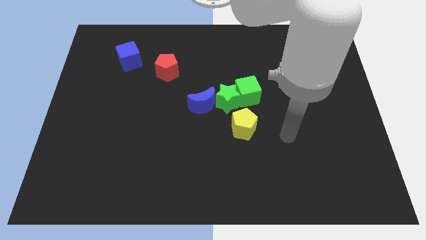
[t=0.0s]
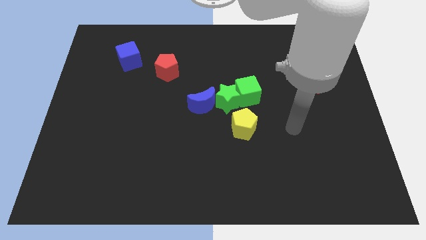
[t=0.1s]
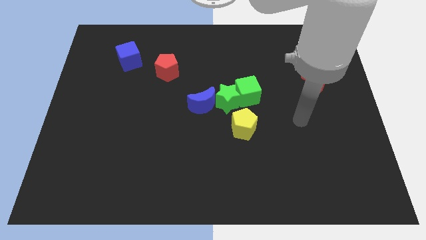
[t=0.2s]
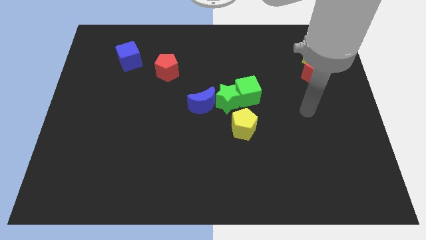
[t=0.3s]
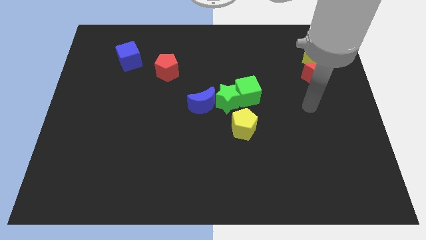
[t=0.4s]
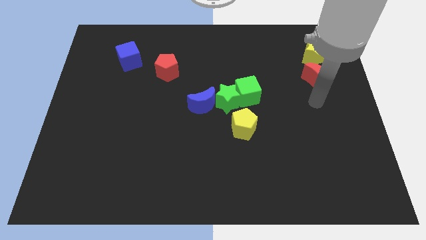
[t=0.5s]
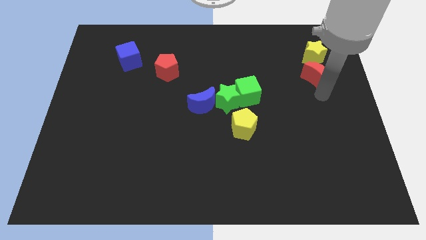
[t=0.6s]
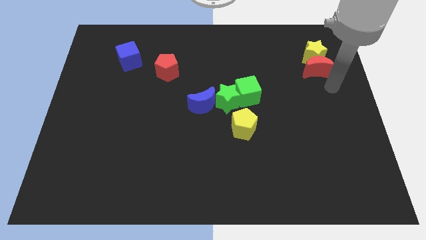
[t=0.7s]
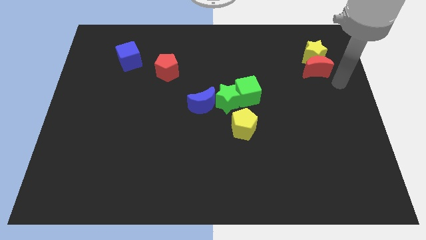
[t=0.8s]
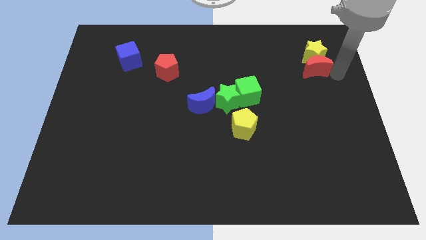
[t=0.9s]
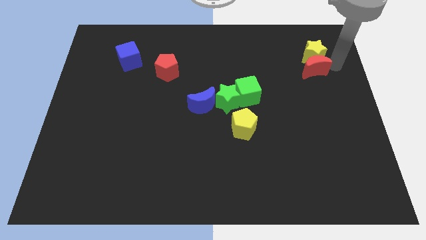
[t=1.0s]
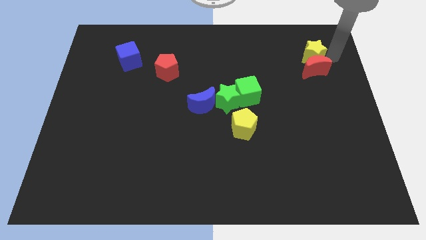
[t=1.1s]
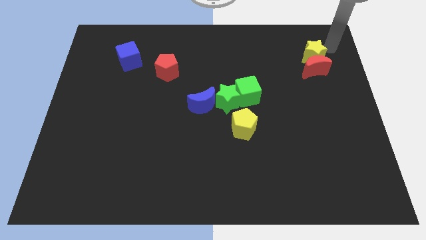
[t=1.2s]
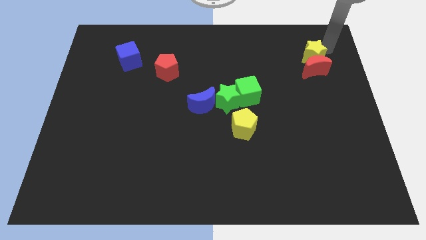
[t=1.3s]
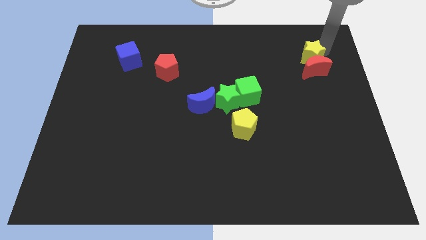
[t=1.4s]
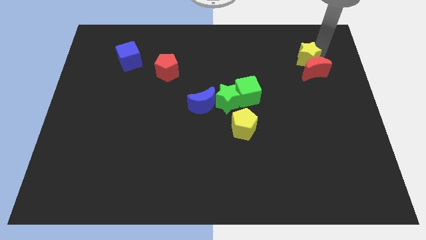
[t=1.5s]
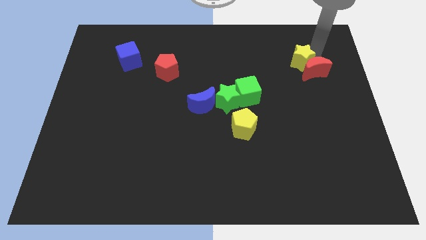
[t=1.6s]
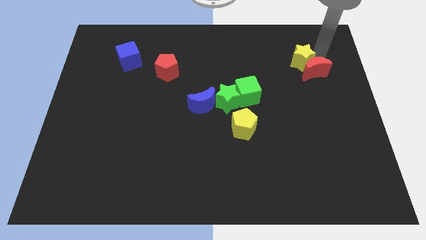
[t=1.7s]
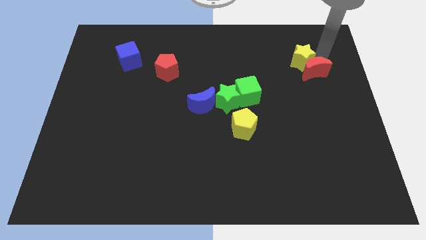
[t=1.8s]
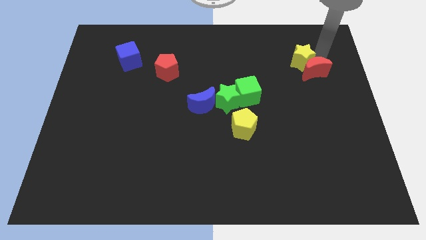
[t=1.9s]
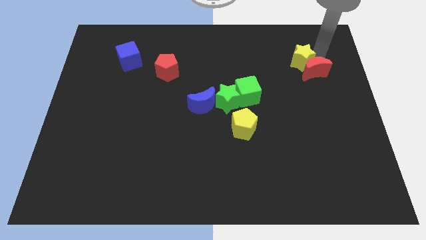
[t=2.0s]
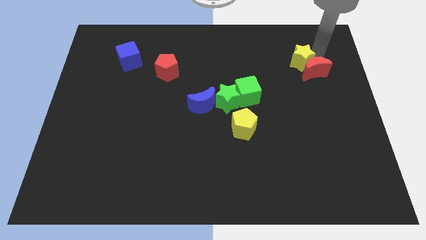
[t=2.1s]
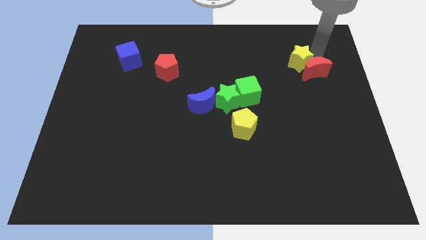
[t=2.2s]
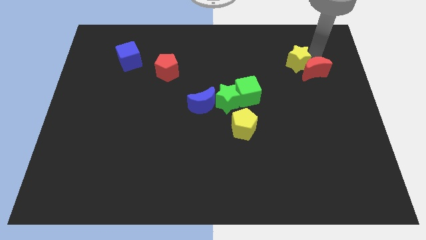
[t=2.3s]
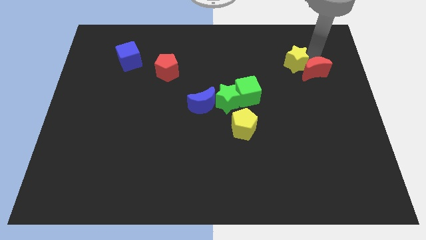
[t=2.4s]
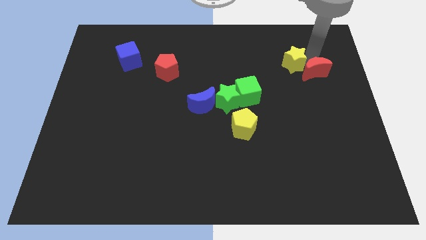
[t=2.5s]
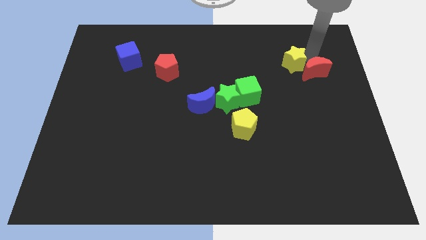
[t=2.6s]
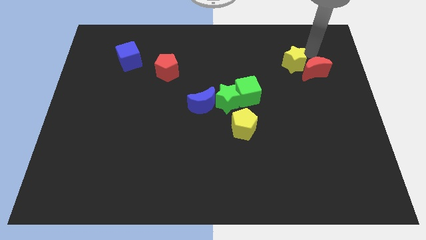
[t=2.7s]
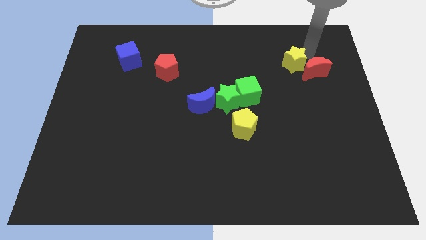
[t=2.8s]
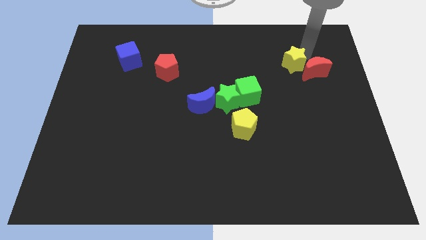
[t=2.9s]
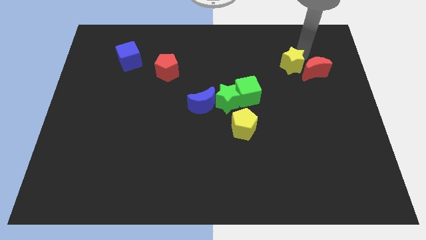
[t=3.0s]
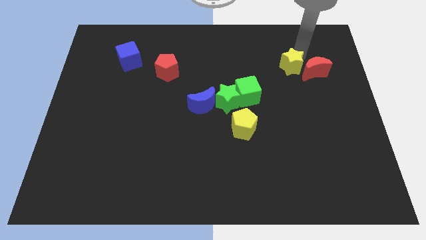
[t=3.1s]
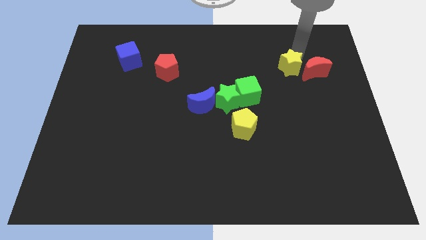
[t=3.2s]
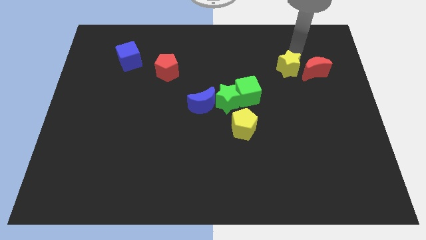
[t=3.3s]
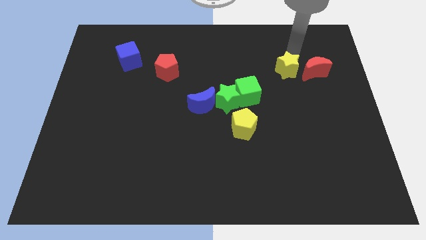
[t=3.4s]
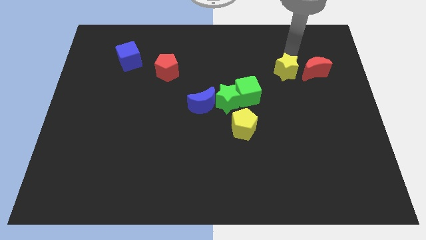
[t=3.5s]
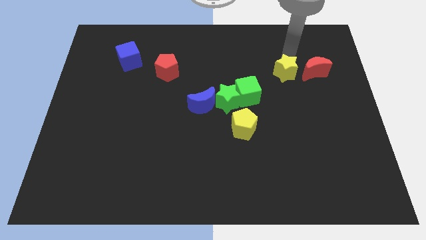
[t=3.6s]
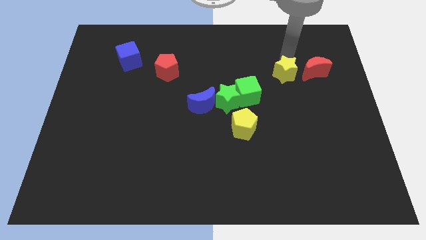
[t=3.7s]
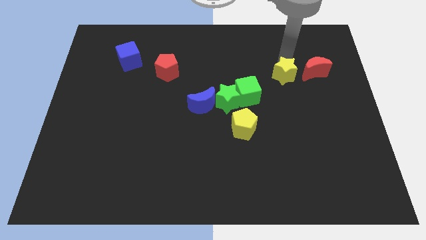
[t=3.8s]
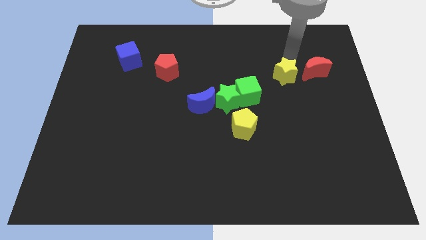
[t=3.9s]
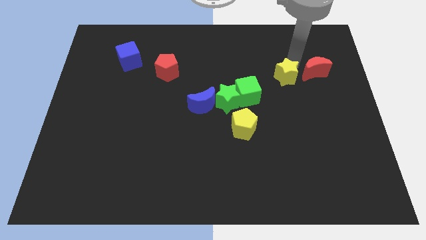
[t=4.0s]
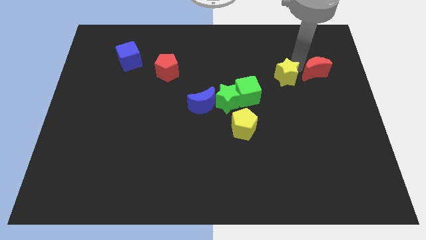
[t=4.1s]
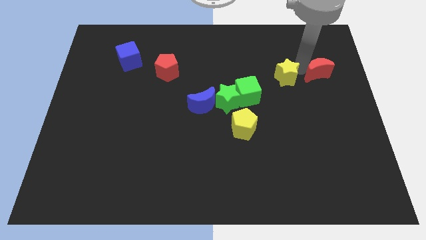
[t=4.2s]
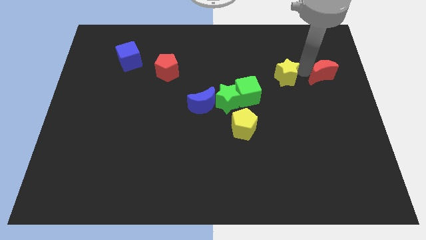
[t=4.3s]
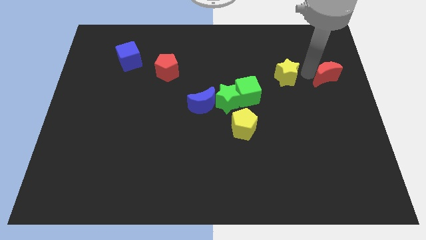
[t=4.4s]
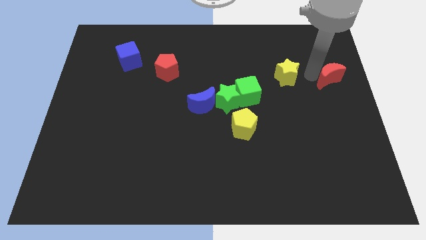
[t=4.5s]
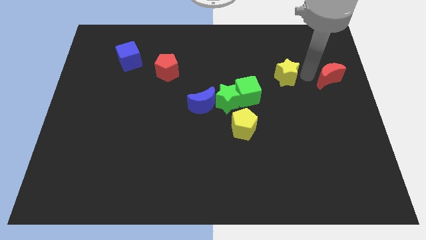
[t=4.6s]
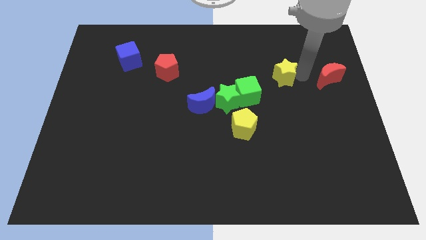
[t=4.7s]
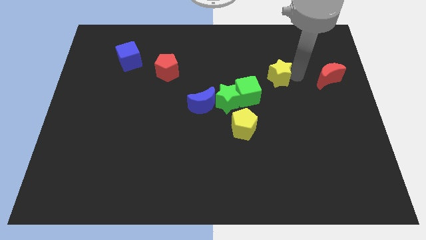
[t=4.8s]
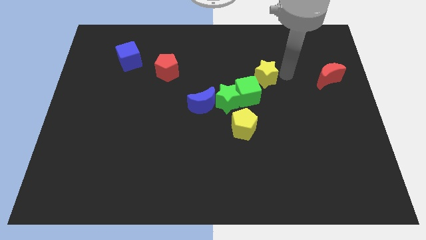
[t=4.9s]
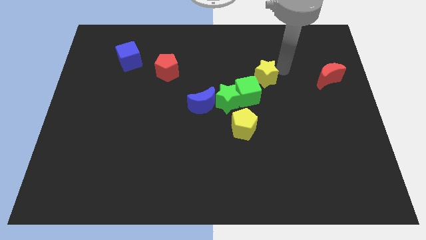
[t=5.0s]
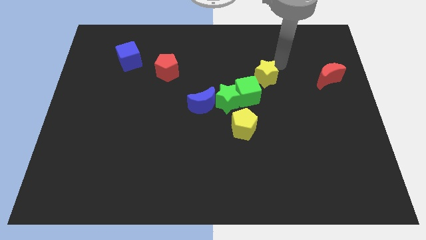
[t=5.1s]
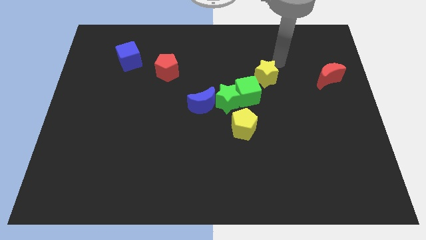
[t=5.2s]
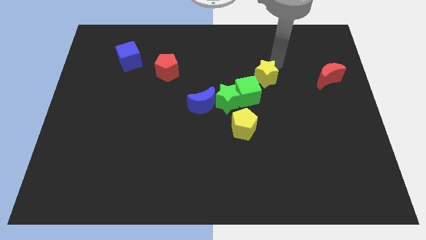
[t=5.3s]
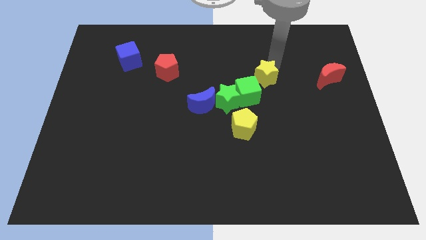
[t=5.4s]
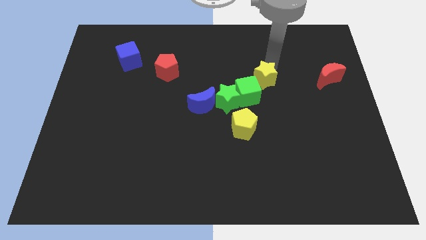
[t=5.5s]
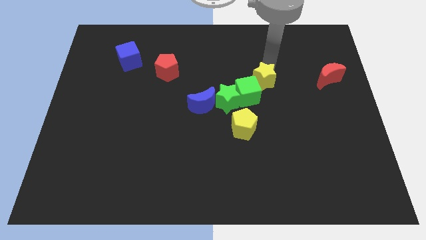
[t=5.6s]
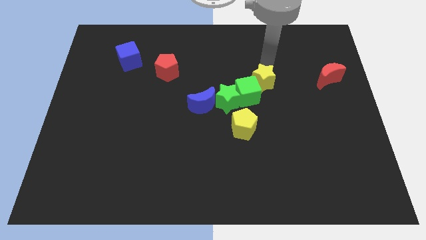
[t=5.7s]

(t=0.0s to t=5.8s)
move the yellow star next to the green cube

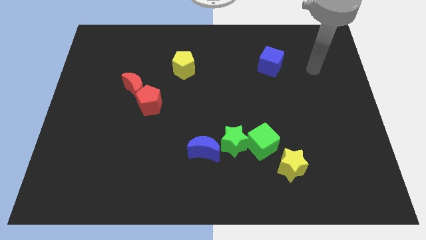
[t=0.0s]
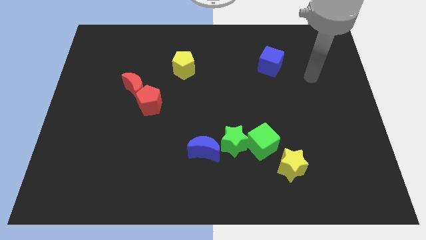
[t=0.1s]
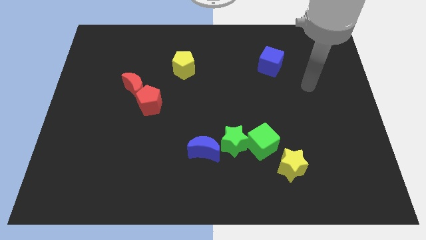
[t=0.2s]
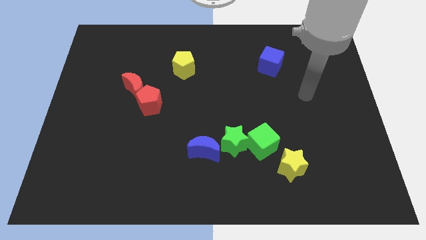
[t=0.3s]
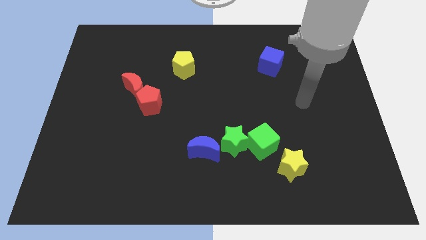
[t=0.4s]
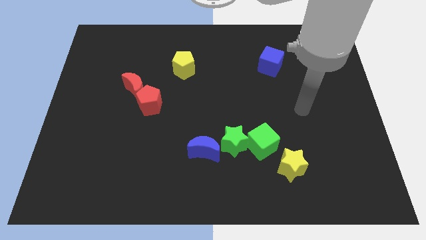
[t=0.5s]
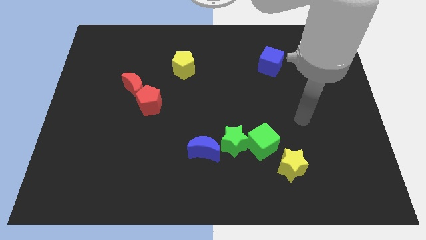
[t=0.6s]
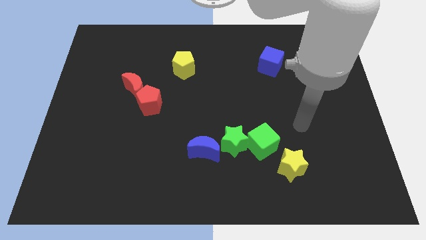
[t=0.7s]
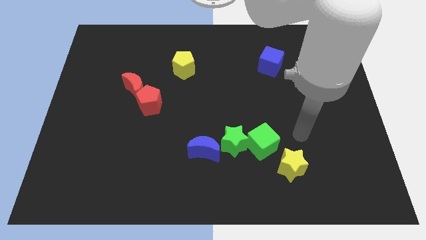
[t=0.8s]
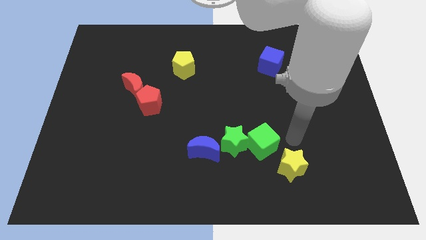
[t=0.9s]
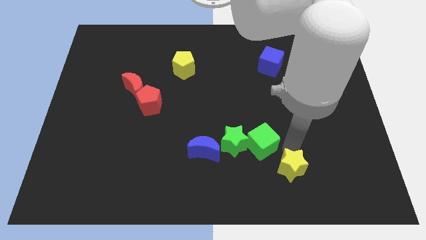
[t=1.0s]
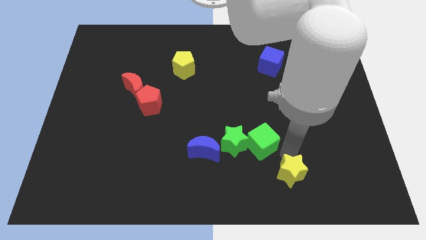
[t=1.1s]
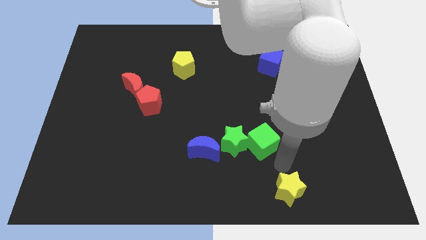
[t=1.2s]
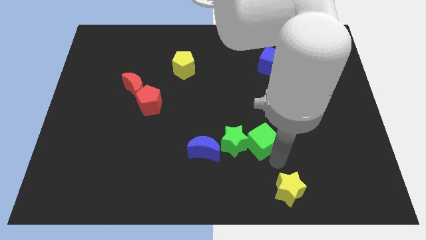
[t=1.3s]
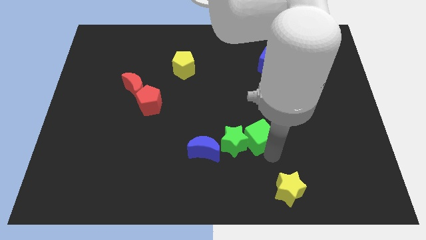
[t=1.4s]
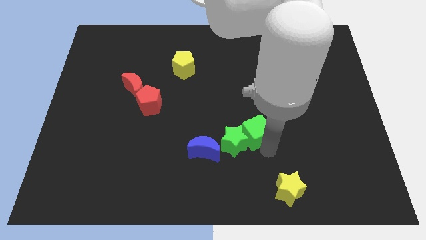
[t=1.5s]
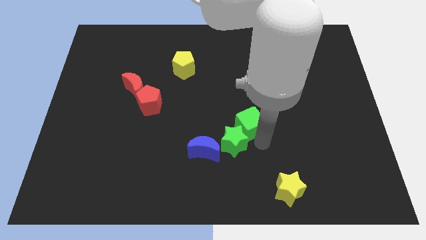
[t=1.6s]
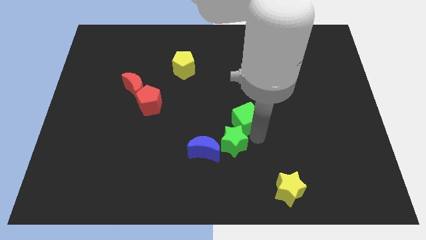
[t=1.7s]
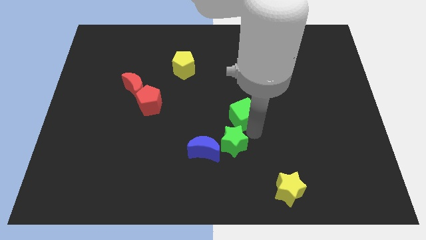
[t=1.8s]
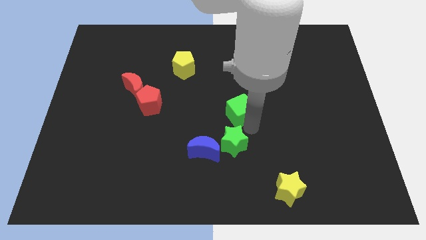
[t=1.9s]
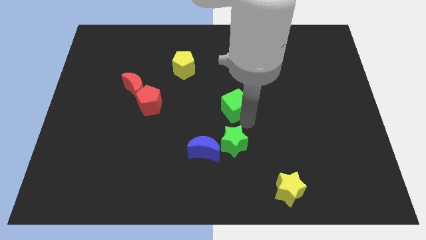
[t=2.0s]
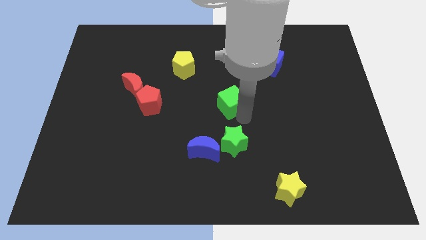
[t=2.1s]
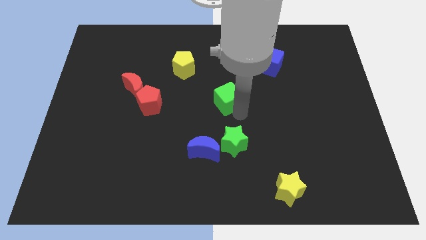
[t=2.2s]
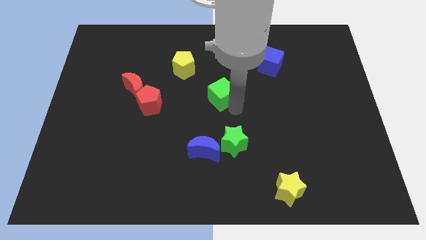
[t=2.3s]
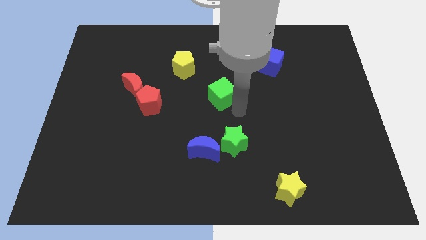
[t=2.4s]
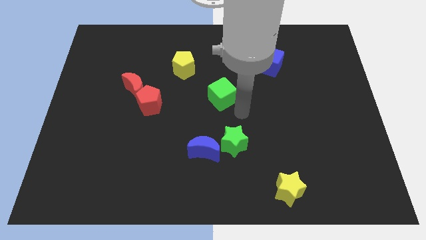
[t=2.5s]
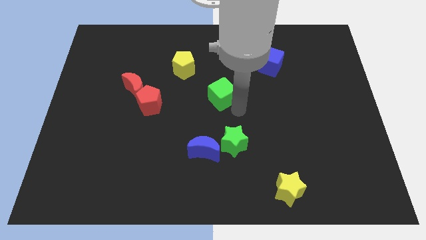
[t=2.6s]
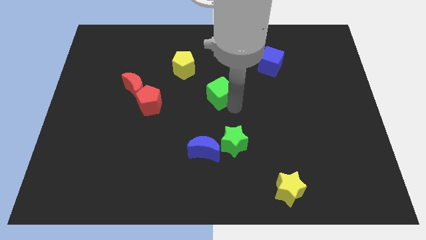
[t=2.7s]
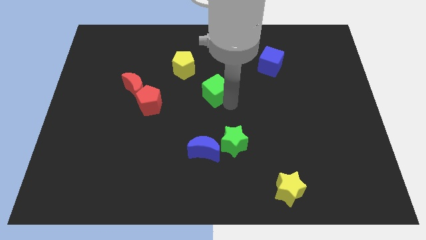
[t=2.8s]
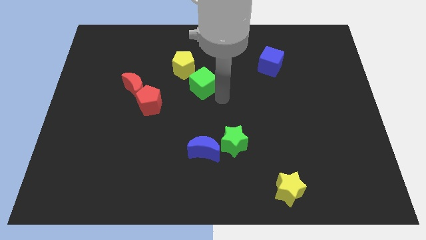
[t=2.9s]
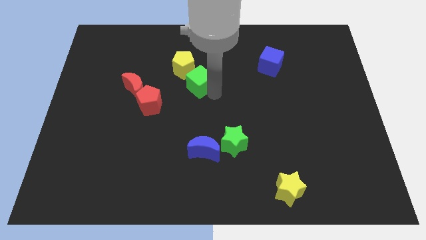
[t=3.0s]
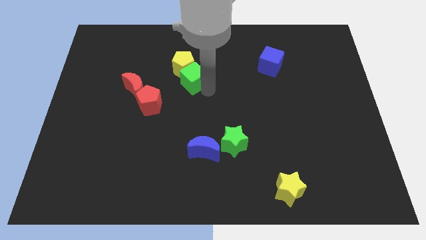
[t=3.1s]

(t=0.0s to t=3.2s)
push the green cube to the yellow pentagon
